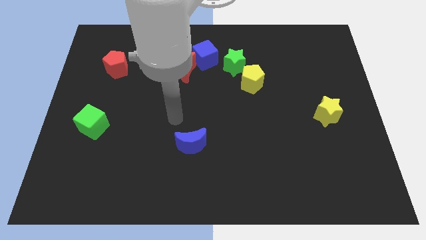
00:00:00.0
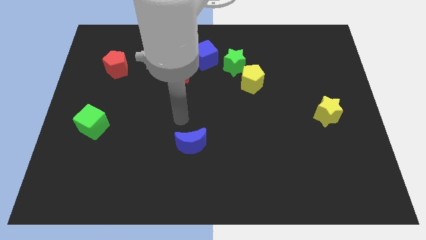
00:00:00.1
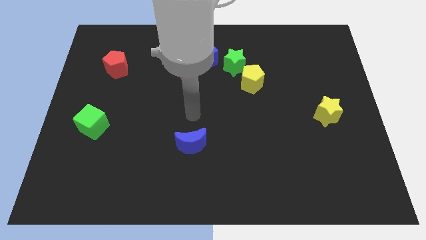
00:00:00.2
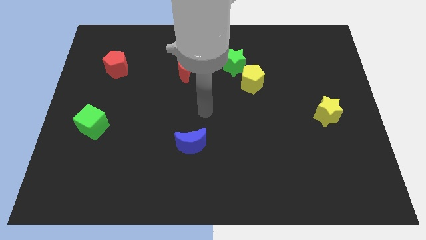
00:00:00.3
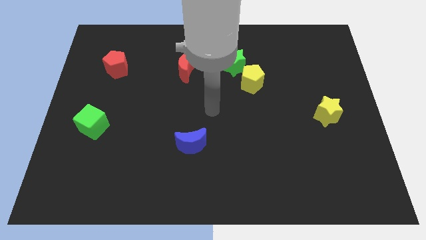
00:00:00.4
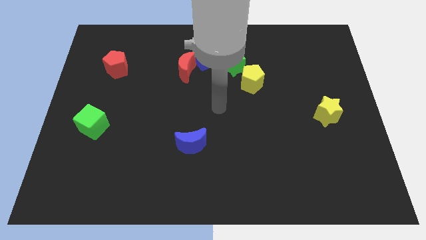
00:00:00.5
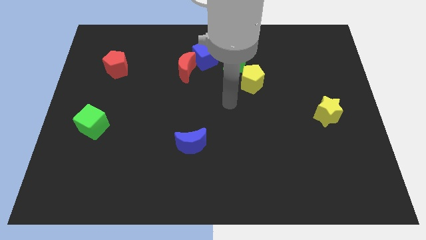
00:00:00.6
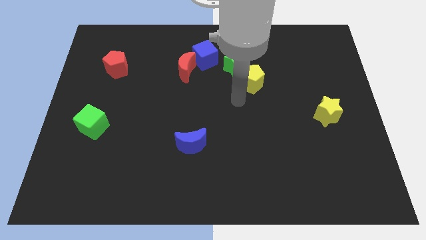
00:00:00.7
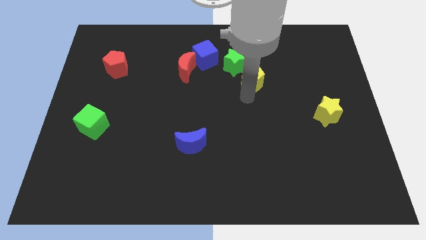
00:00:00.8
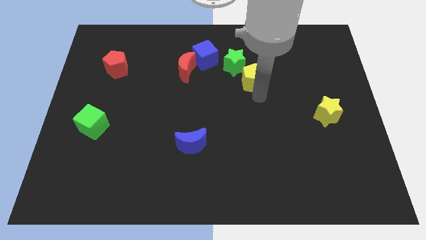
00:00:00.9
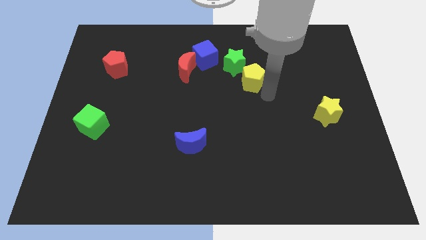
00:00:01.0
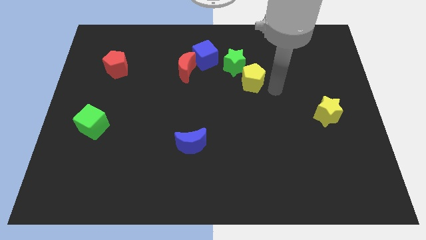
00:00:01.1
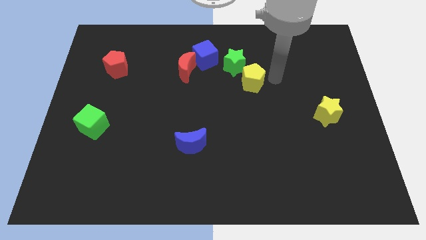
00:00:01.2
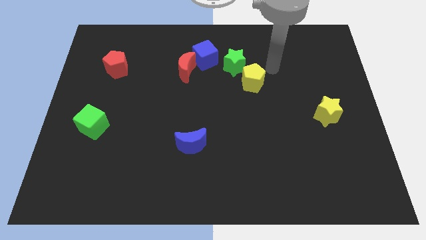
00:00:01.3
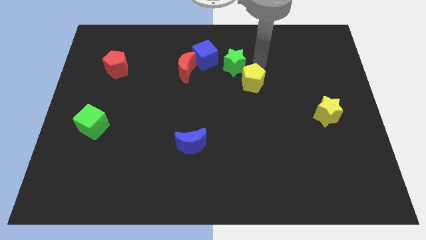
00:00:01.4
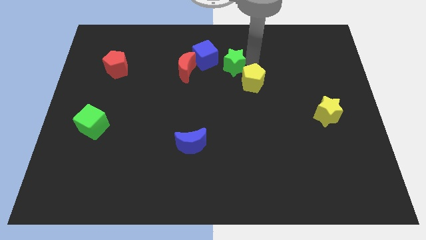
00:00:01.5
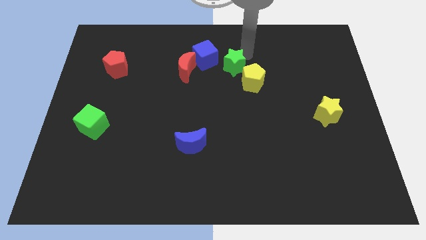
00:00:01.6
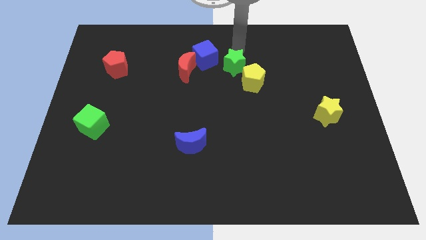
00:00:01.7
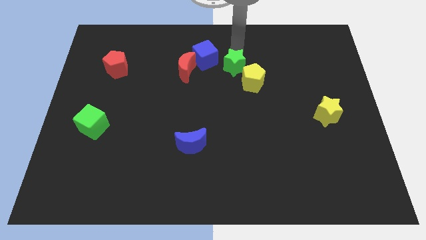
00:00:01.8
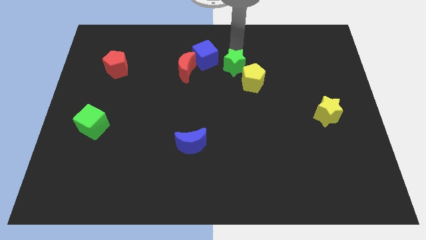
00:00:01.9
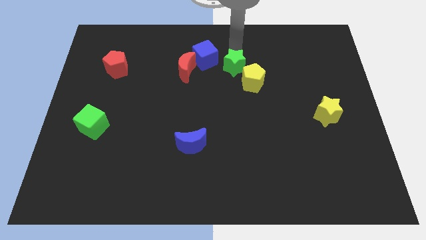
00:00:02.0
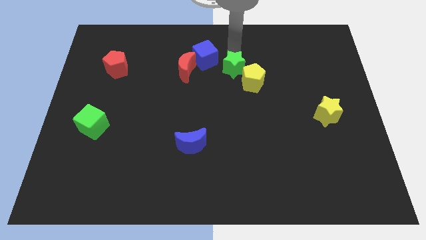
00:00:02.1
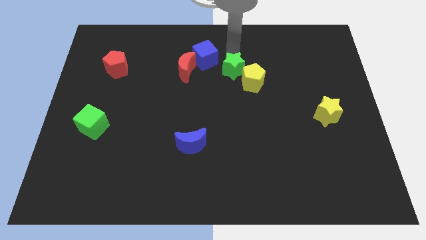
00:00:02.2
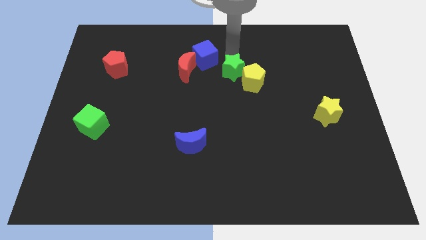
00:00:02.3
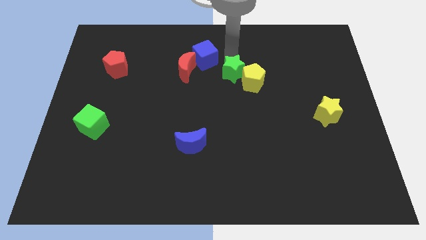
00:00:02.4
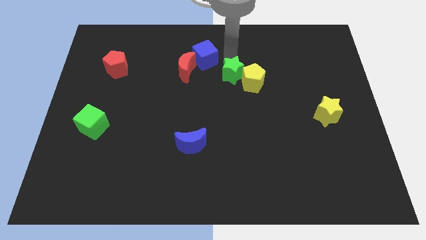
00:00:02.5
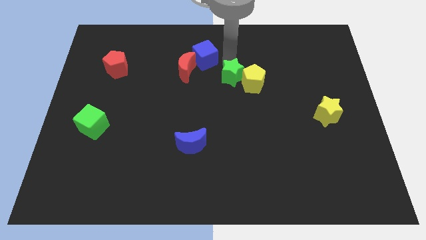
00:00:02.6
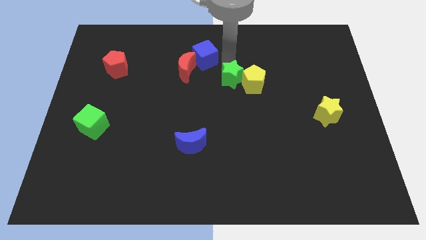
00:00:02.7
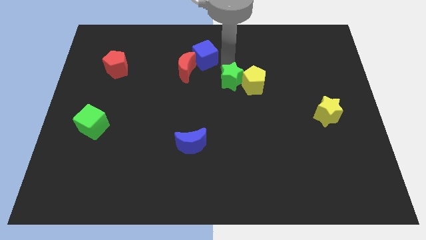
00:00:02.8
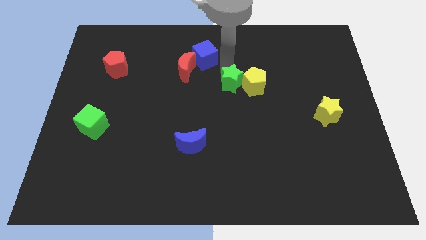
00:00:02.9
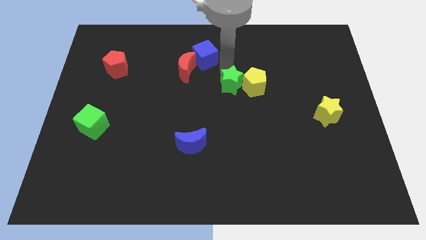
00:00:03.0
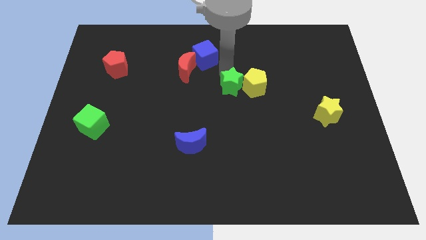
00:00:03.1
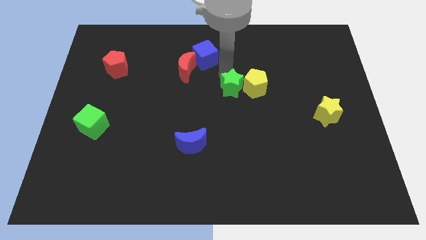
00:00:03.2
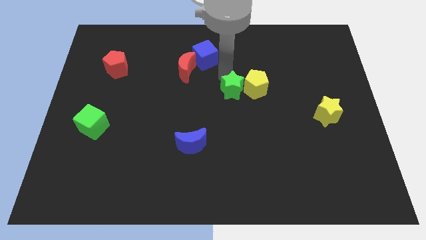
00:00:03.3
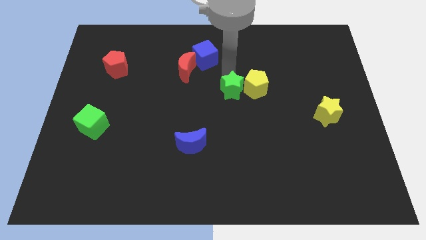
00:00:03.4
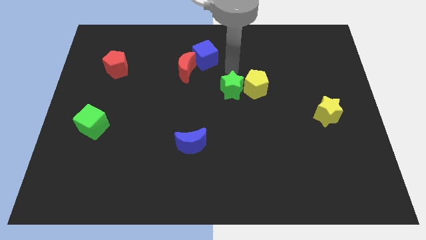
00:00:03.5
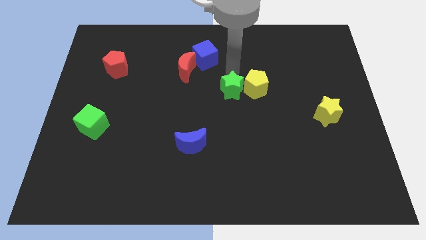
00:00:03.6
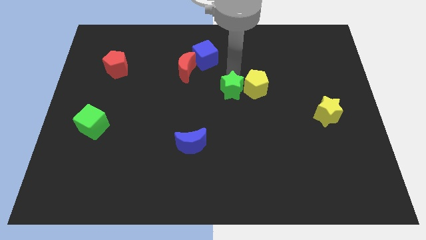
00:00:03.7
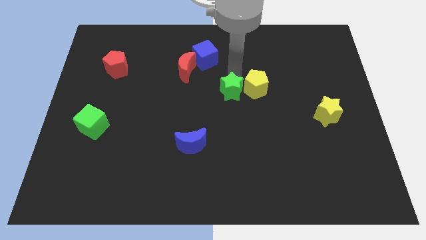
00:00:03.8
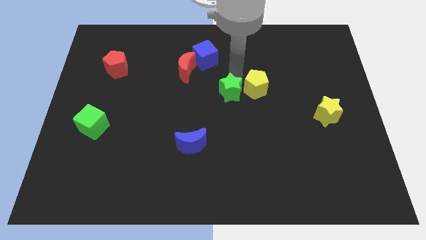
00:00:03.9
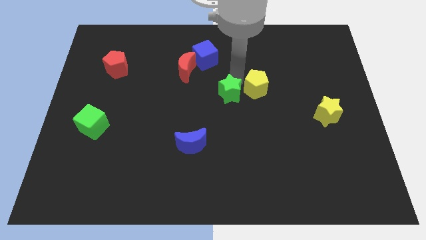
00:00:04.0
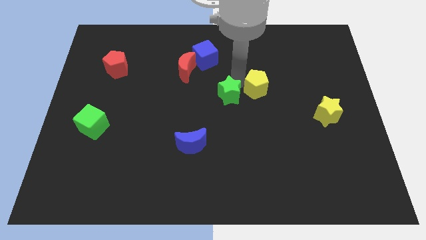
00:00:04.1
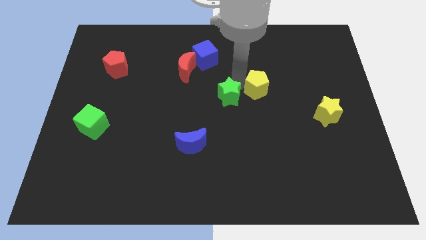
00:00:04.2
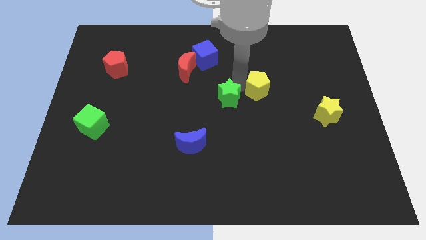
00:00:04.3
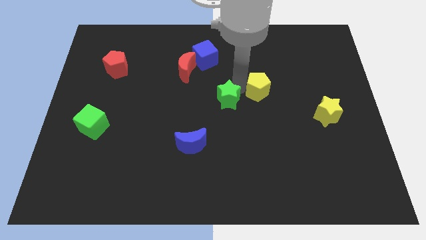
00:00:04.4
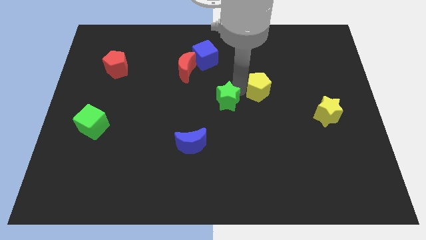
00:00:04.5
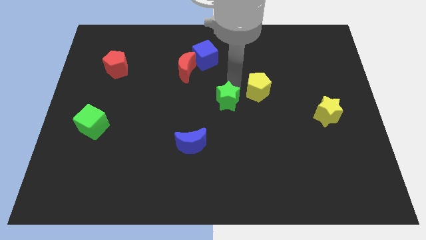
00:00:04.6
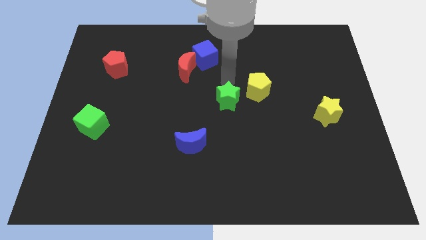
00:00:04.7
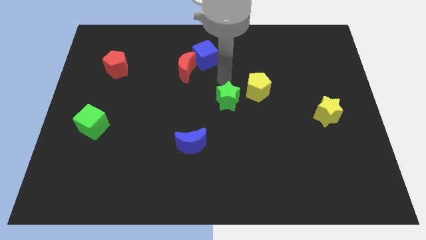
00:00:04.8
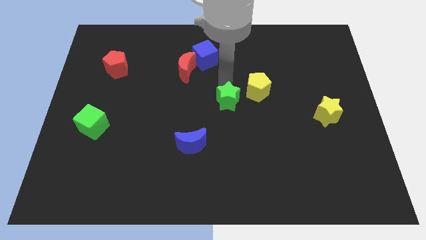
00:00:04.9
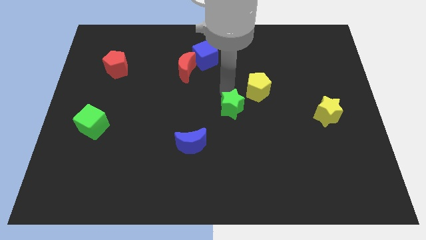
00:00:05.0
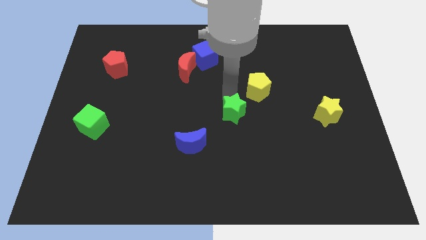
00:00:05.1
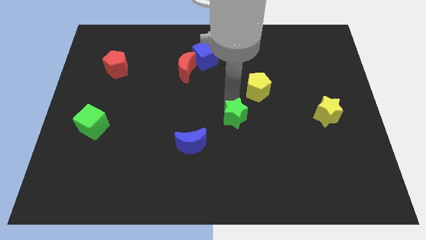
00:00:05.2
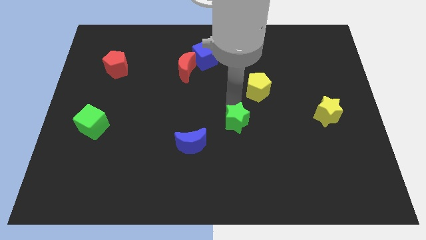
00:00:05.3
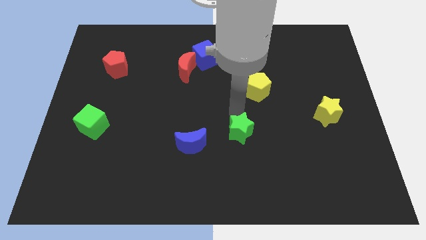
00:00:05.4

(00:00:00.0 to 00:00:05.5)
push the green star downwards

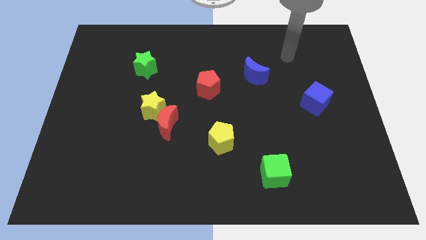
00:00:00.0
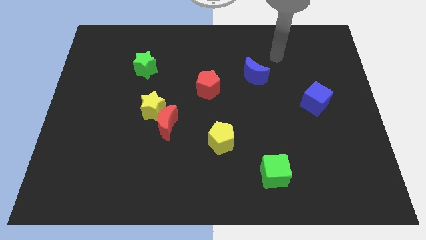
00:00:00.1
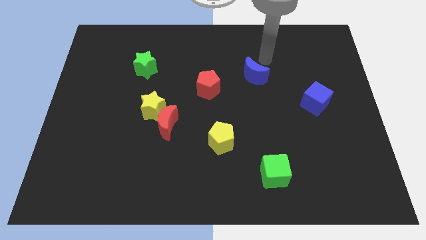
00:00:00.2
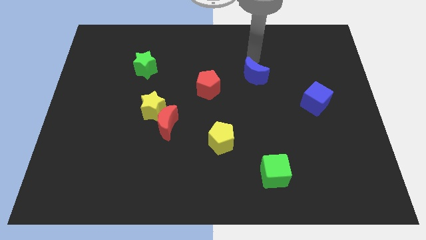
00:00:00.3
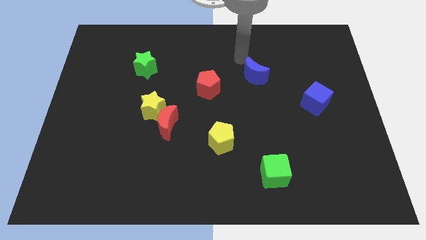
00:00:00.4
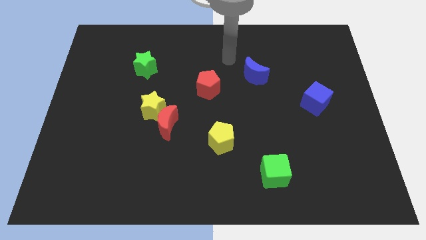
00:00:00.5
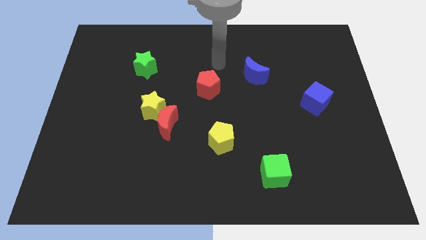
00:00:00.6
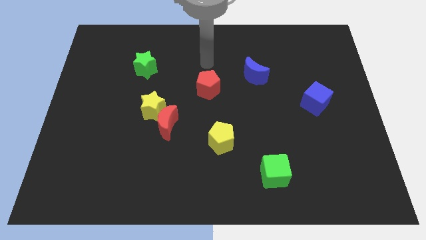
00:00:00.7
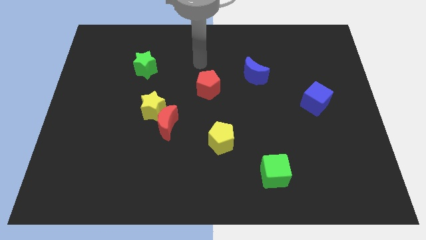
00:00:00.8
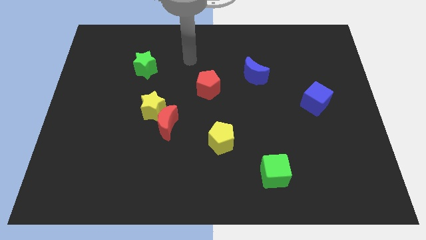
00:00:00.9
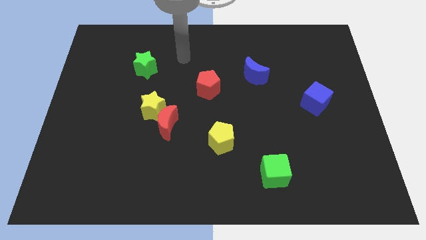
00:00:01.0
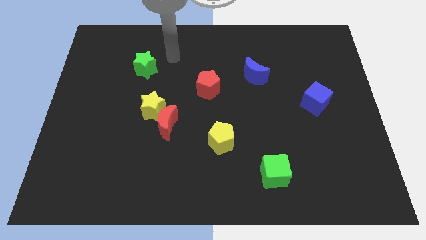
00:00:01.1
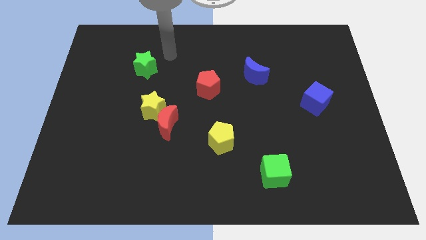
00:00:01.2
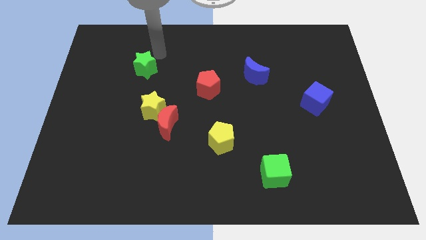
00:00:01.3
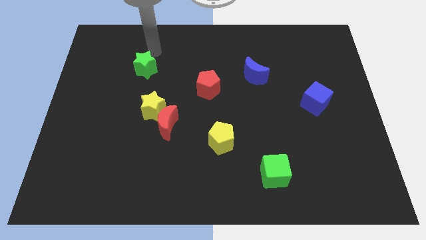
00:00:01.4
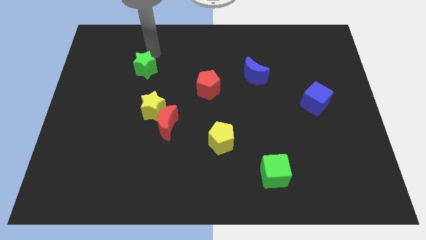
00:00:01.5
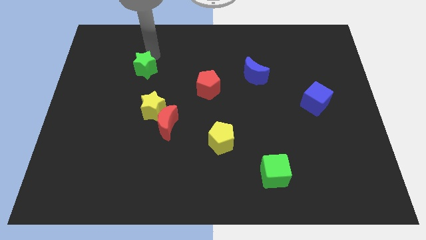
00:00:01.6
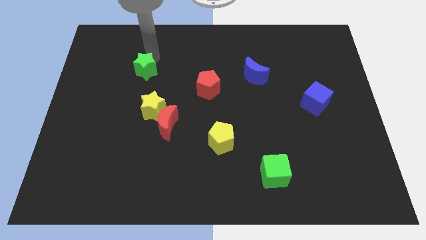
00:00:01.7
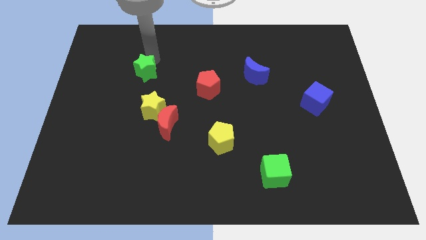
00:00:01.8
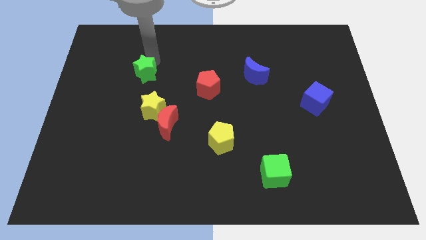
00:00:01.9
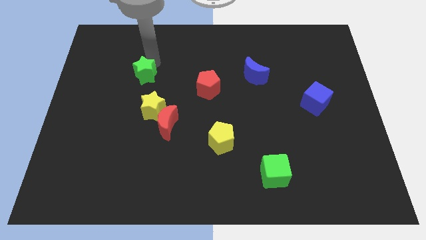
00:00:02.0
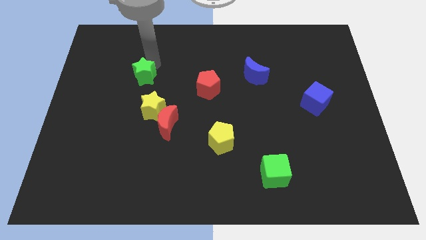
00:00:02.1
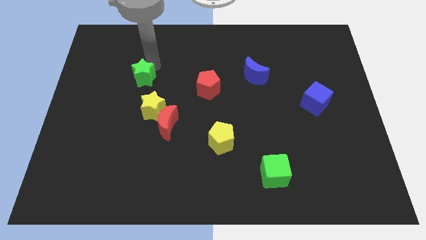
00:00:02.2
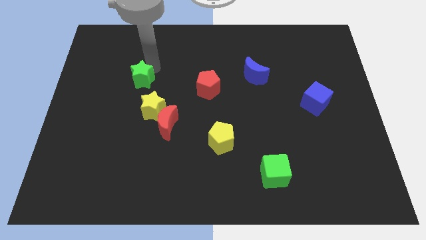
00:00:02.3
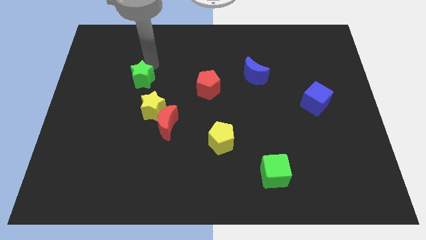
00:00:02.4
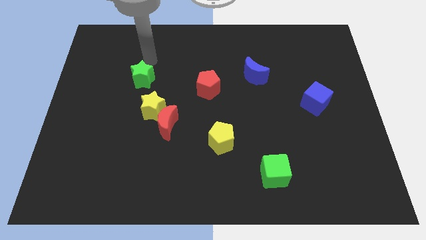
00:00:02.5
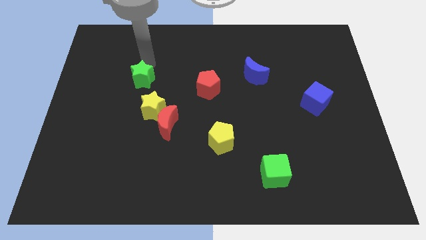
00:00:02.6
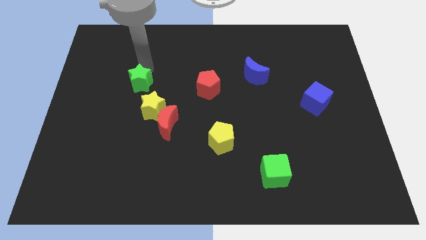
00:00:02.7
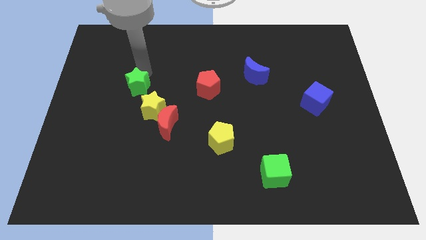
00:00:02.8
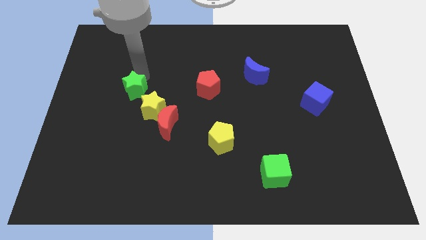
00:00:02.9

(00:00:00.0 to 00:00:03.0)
move the green star downwards a little bit
